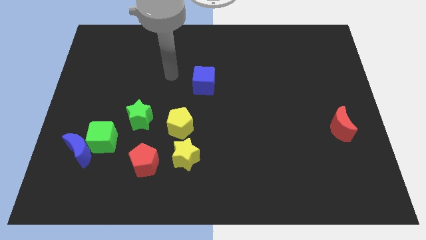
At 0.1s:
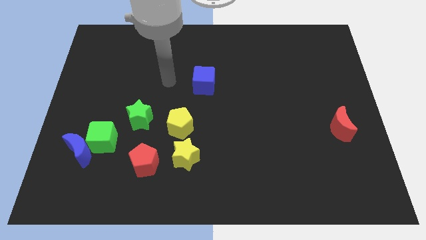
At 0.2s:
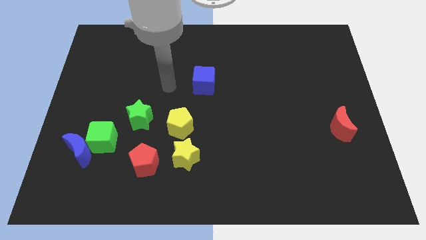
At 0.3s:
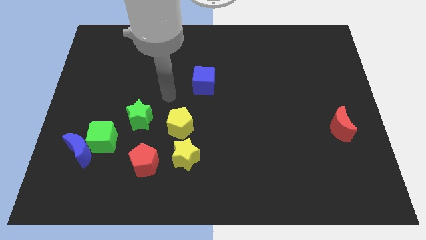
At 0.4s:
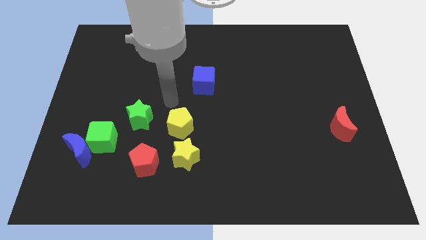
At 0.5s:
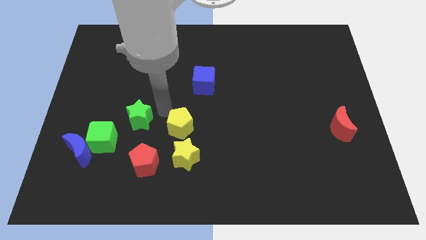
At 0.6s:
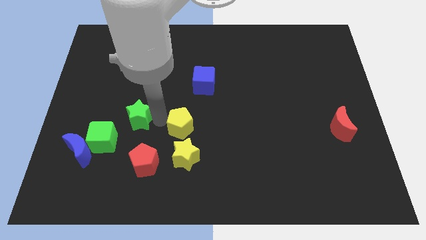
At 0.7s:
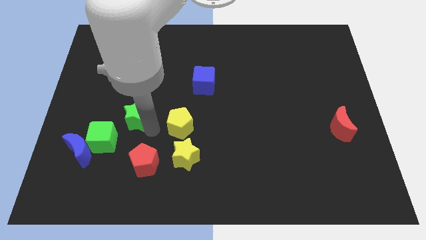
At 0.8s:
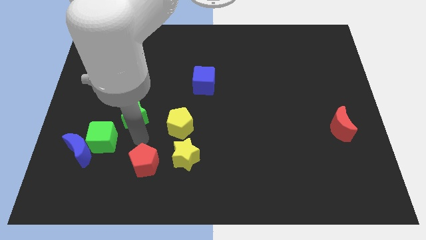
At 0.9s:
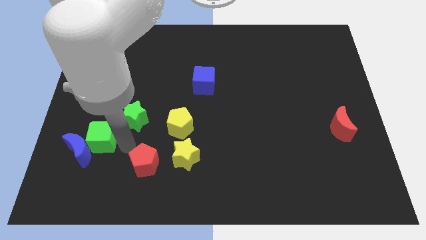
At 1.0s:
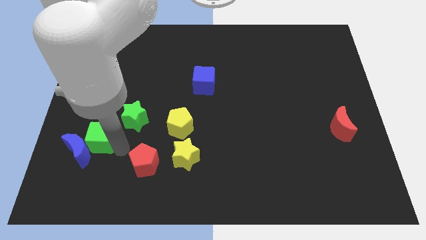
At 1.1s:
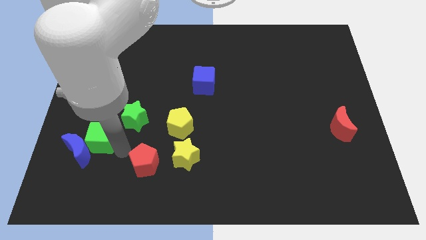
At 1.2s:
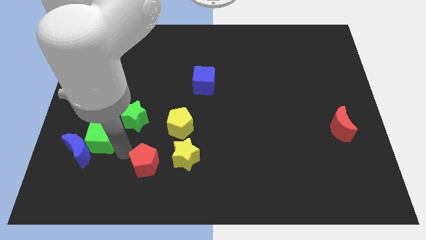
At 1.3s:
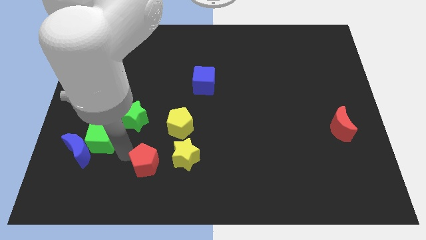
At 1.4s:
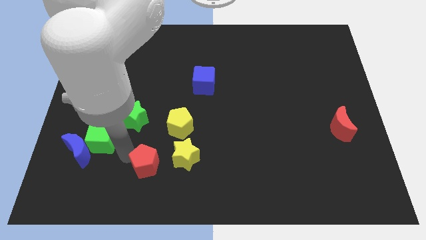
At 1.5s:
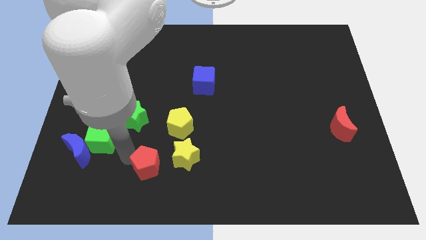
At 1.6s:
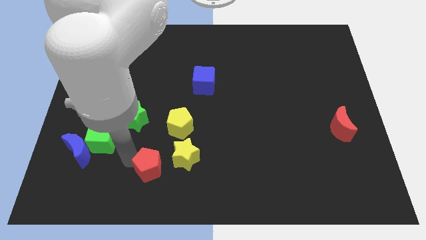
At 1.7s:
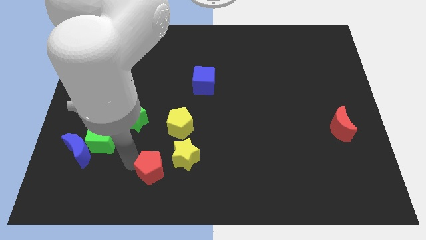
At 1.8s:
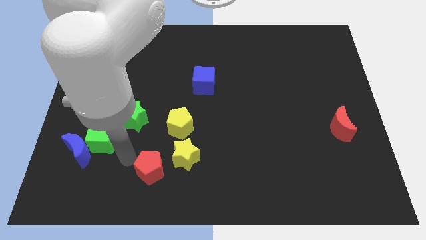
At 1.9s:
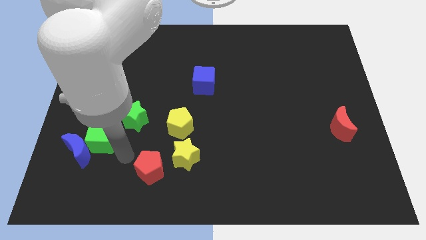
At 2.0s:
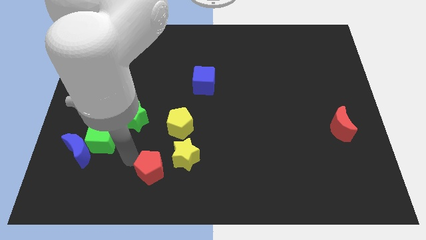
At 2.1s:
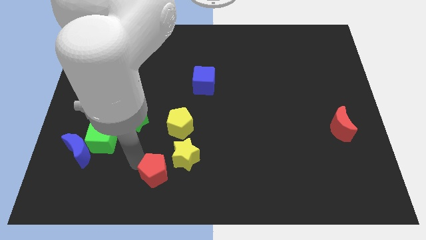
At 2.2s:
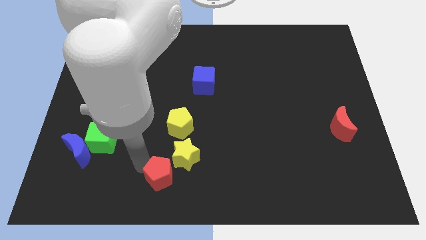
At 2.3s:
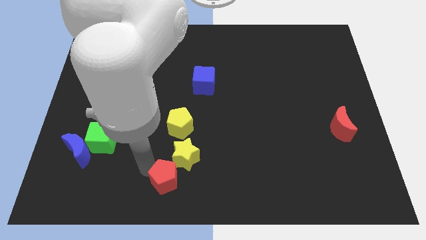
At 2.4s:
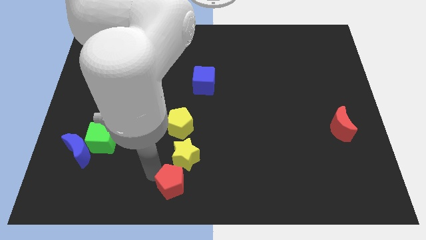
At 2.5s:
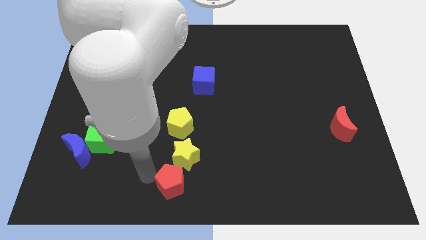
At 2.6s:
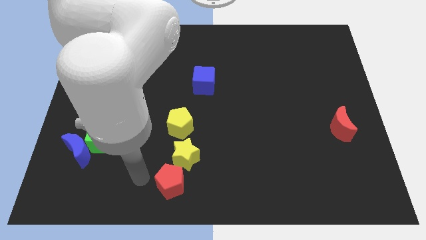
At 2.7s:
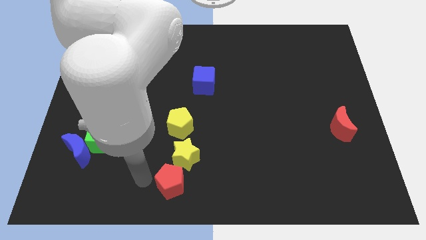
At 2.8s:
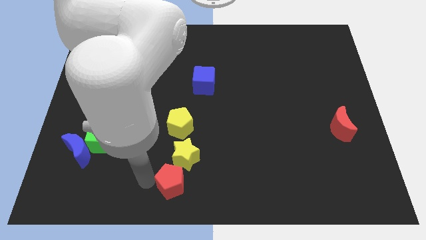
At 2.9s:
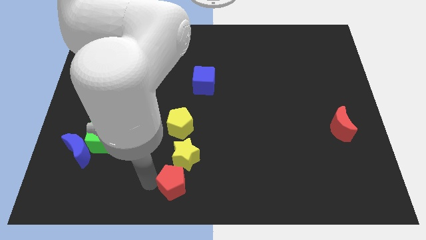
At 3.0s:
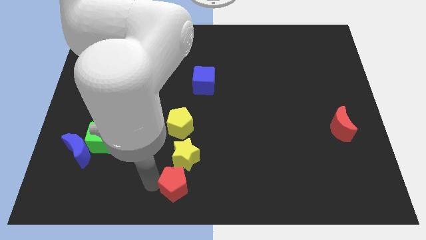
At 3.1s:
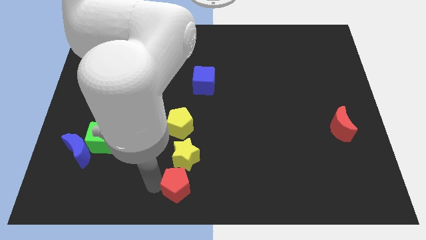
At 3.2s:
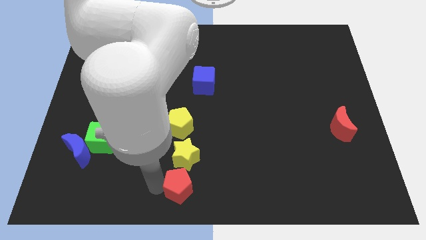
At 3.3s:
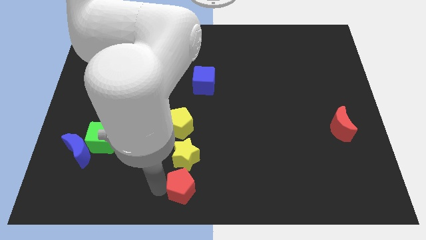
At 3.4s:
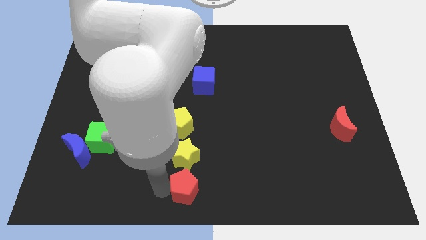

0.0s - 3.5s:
push the red pentagon slightly to the right

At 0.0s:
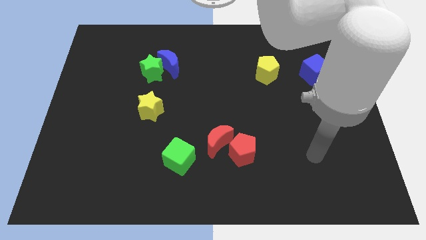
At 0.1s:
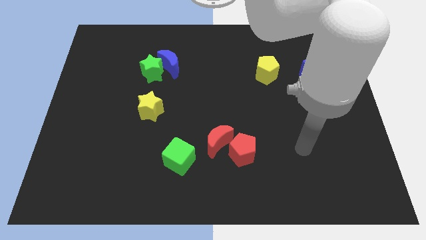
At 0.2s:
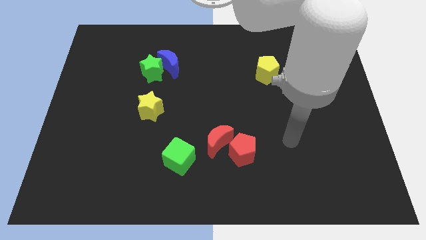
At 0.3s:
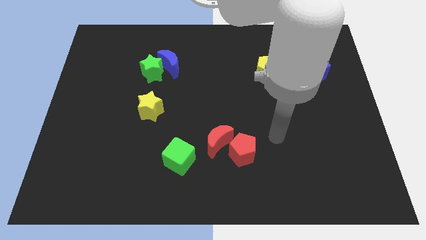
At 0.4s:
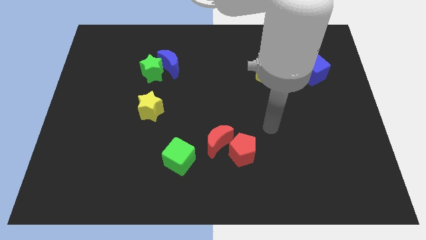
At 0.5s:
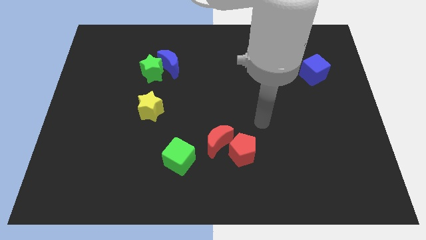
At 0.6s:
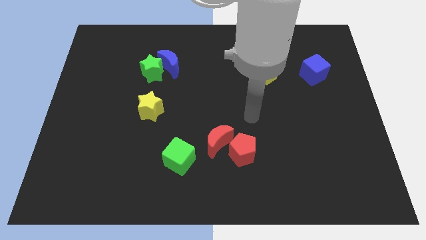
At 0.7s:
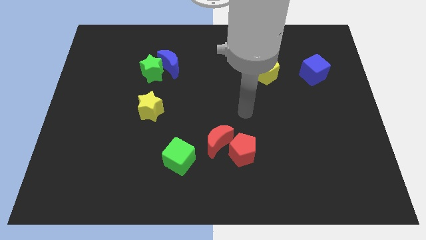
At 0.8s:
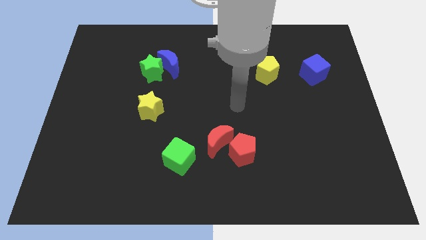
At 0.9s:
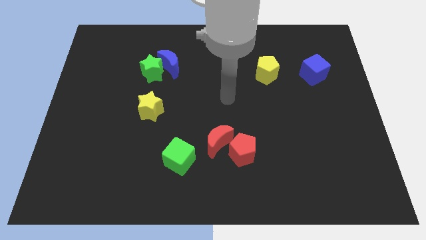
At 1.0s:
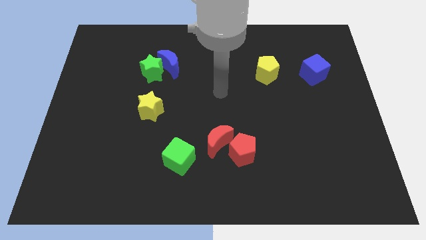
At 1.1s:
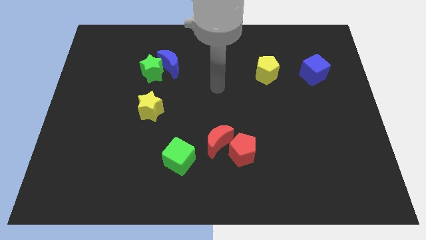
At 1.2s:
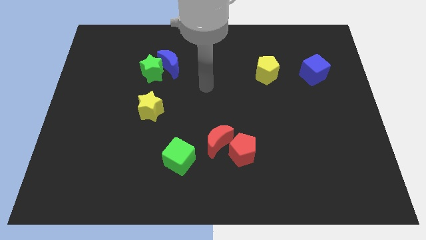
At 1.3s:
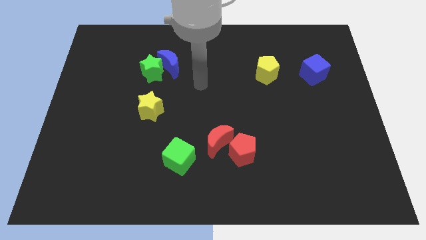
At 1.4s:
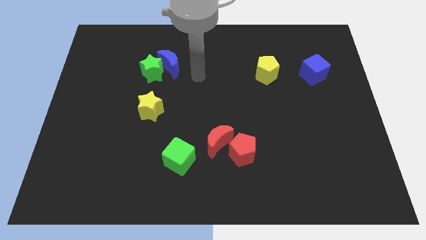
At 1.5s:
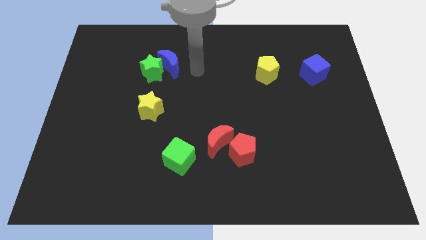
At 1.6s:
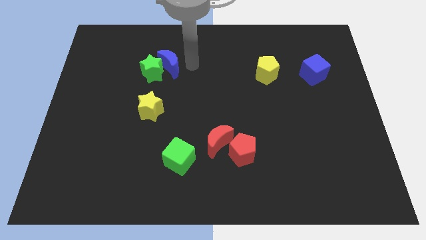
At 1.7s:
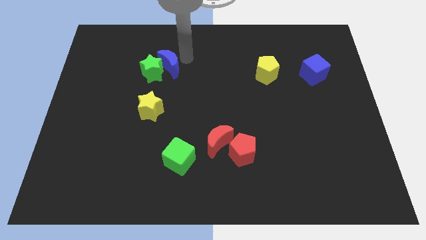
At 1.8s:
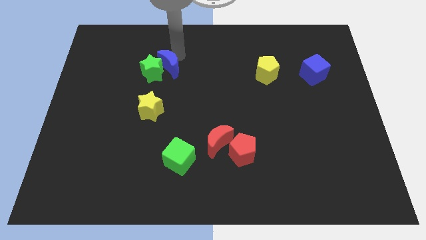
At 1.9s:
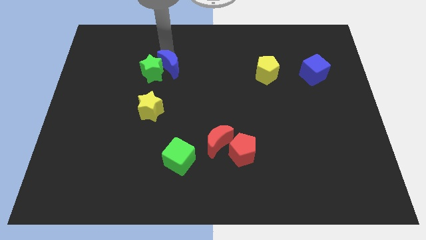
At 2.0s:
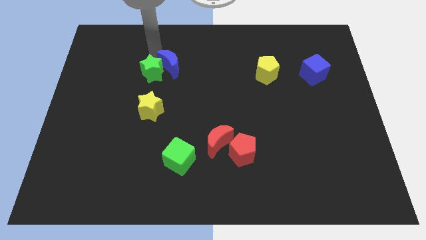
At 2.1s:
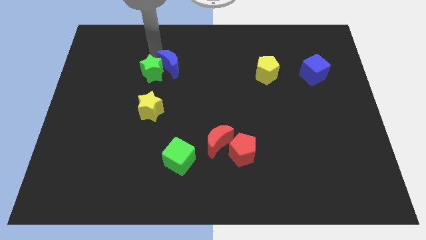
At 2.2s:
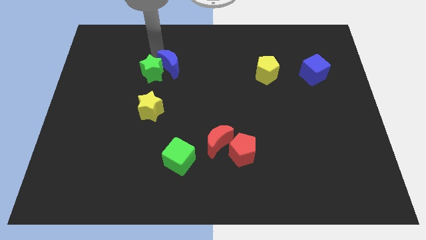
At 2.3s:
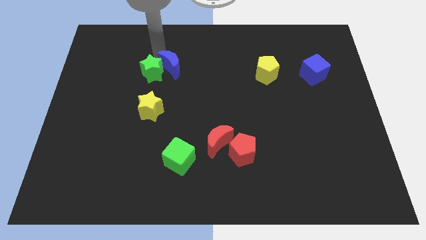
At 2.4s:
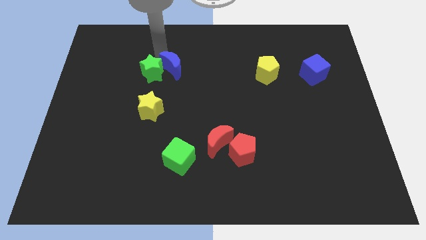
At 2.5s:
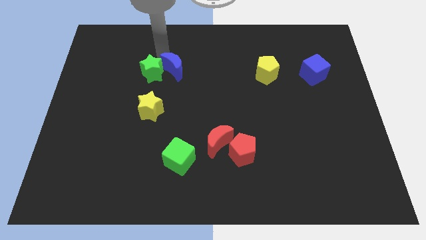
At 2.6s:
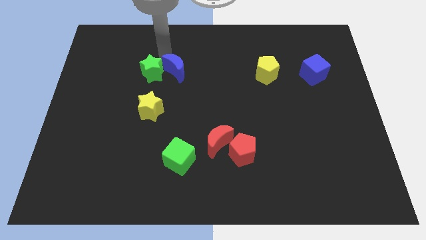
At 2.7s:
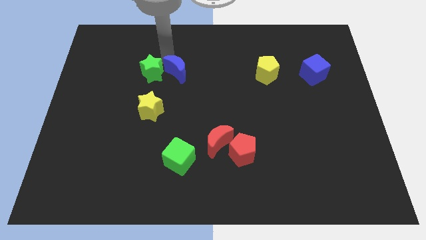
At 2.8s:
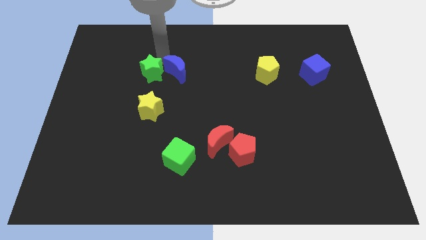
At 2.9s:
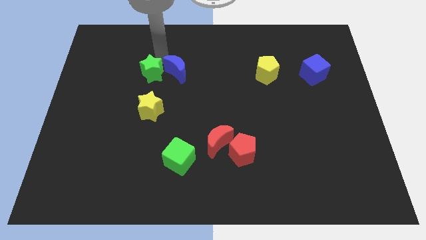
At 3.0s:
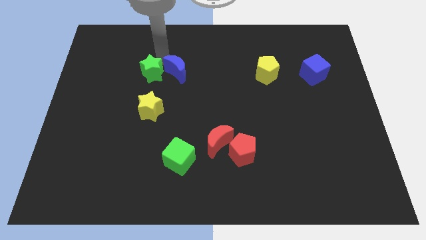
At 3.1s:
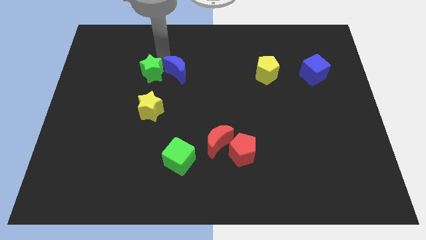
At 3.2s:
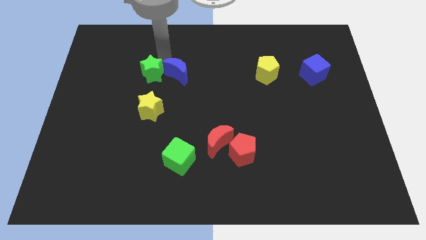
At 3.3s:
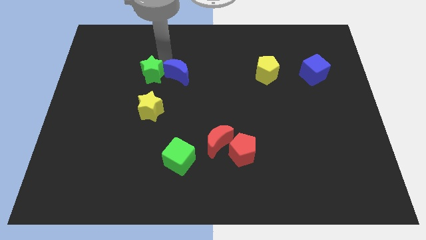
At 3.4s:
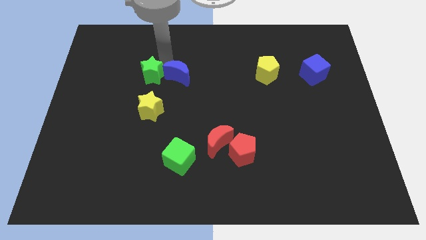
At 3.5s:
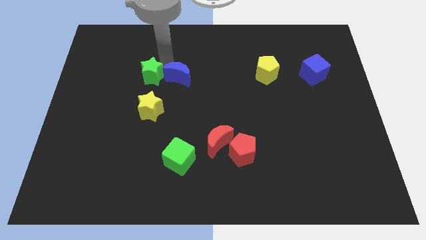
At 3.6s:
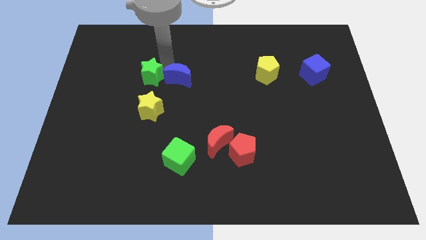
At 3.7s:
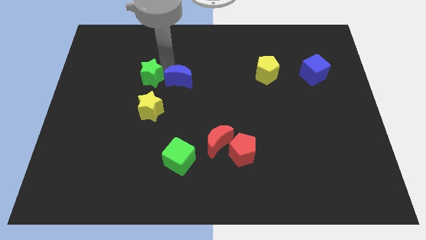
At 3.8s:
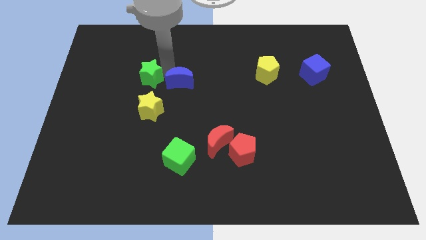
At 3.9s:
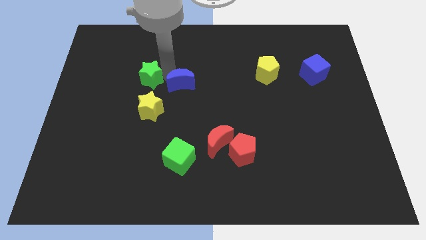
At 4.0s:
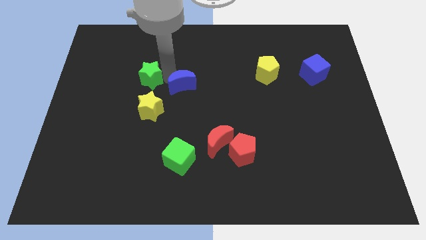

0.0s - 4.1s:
slightly slide the blue moon diagonally down and to the right

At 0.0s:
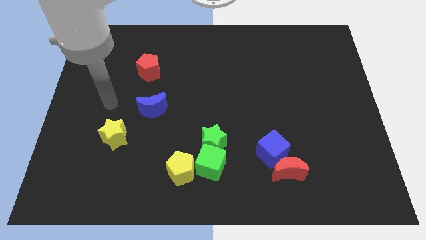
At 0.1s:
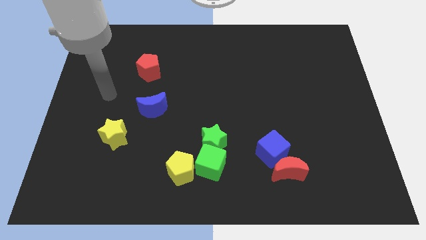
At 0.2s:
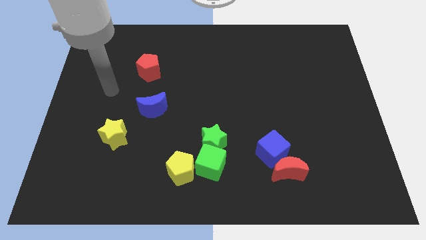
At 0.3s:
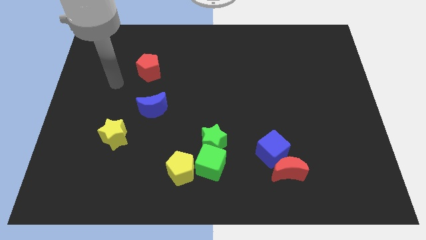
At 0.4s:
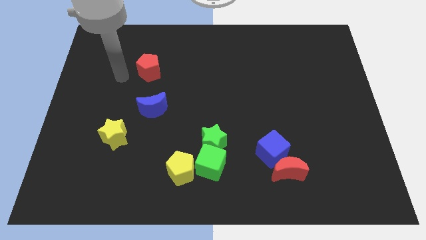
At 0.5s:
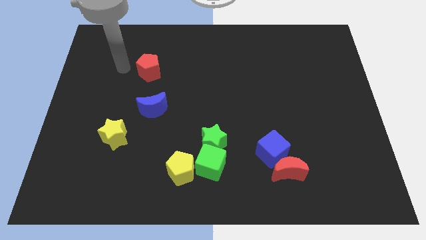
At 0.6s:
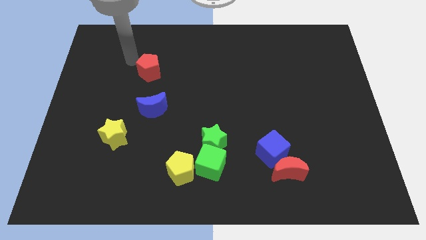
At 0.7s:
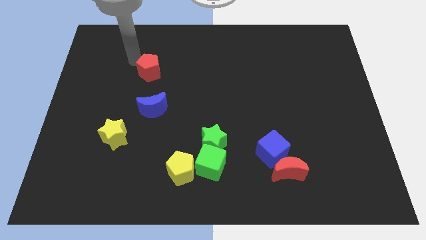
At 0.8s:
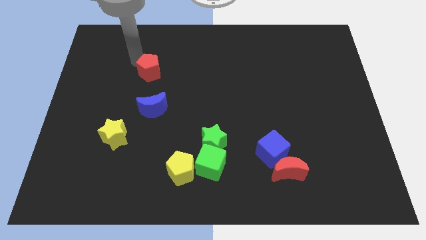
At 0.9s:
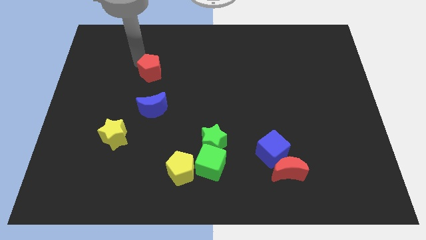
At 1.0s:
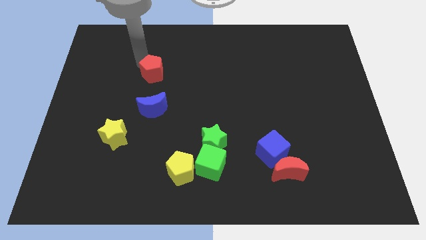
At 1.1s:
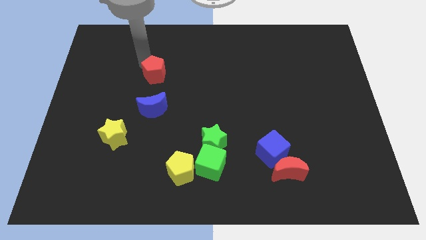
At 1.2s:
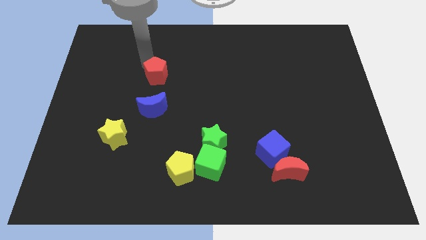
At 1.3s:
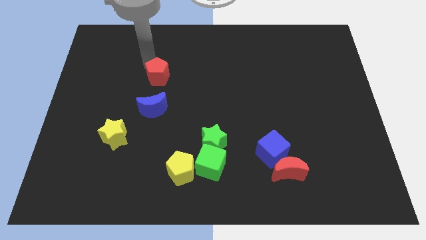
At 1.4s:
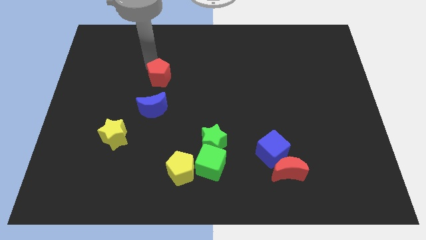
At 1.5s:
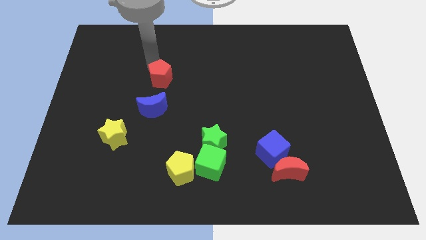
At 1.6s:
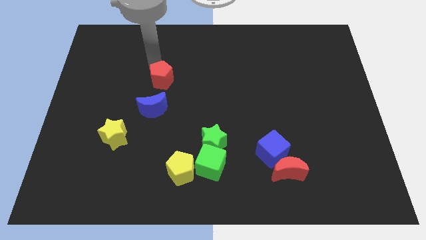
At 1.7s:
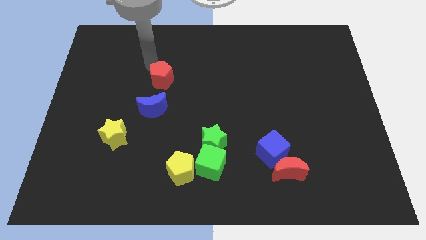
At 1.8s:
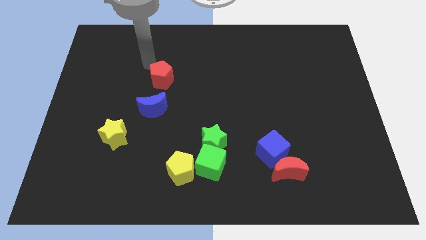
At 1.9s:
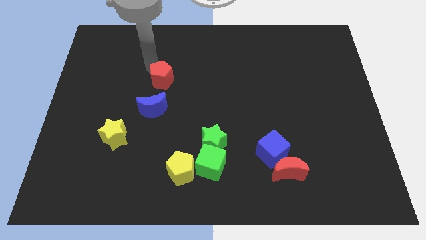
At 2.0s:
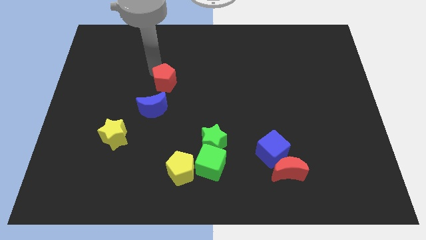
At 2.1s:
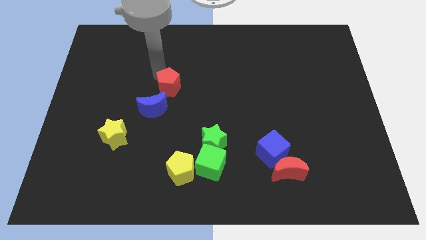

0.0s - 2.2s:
slide the red pentagon a little bit down and to the right
